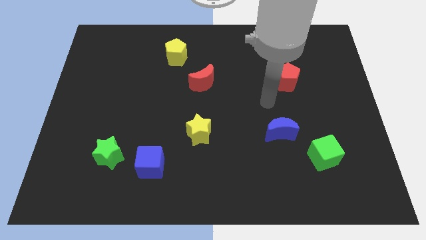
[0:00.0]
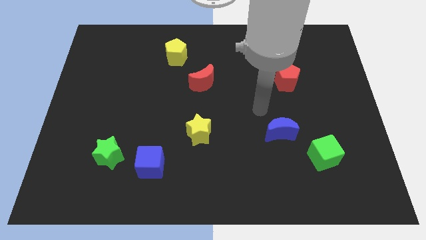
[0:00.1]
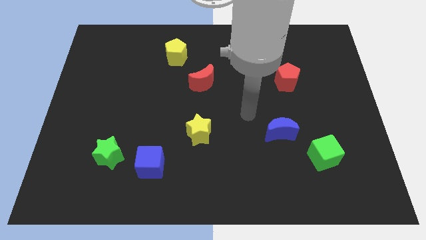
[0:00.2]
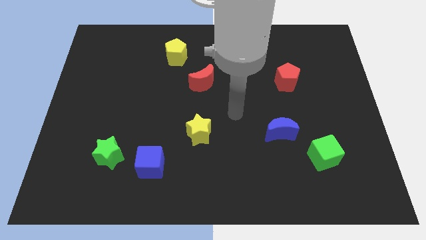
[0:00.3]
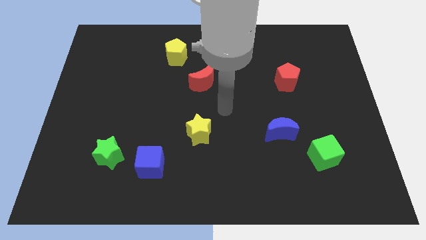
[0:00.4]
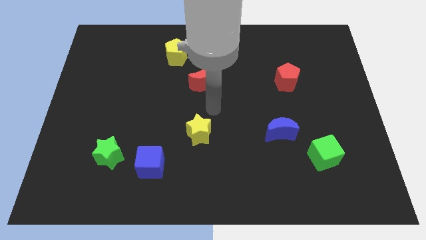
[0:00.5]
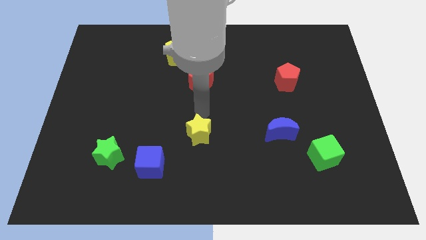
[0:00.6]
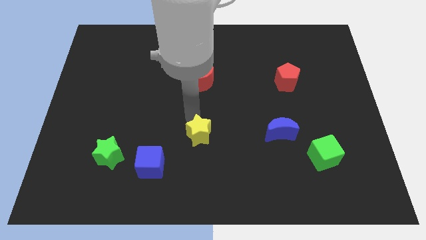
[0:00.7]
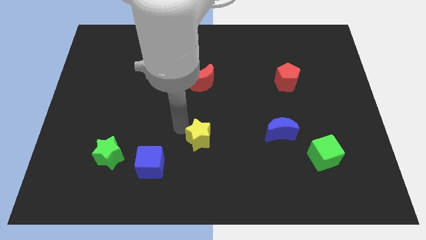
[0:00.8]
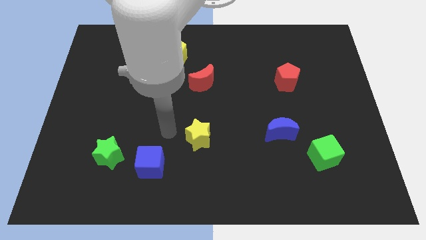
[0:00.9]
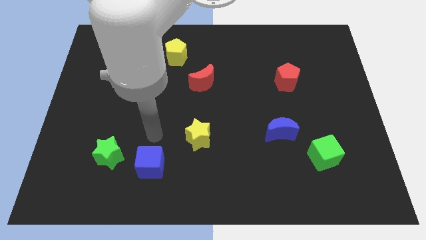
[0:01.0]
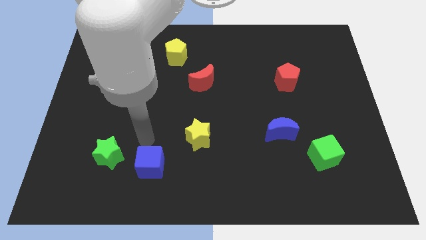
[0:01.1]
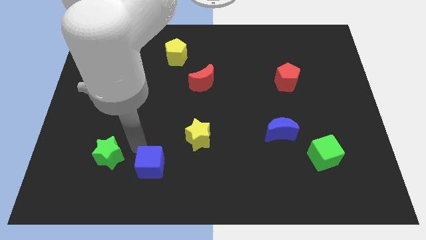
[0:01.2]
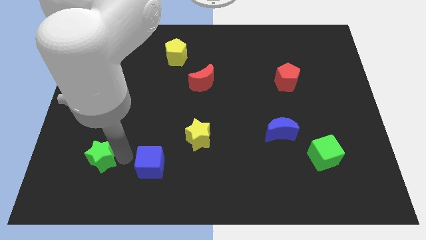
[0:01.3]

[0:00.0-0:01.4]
separate the blue cube from the green star

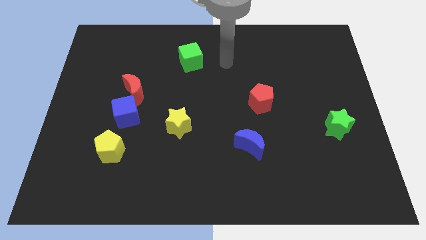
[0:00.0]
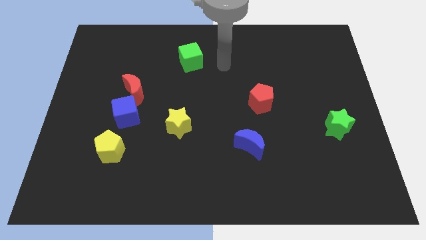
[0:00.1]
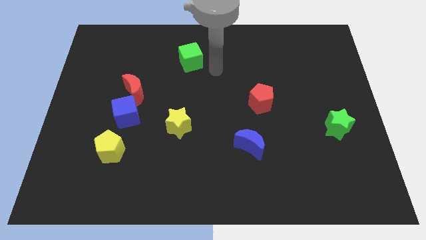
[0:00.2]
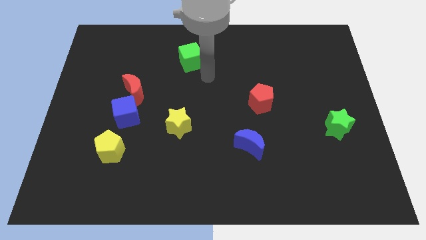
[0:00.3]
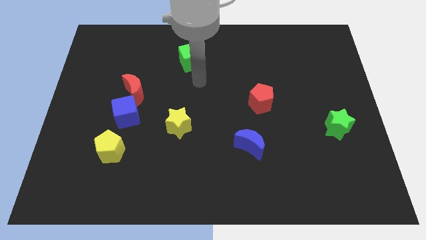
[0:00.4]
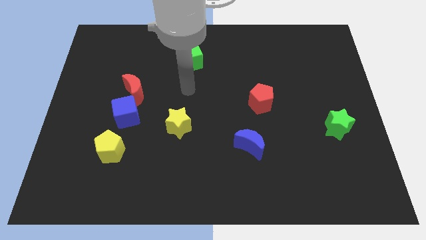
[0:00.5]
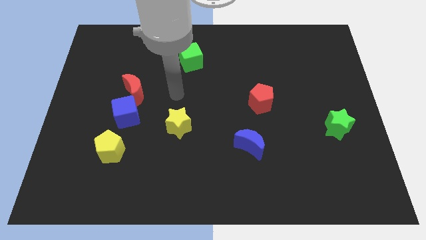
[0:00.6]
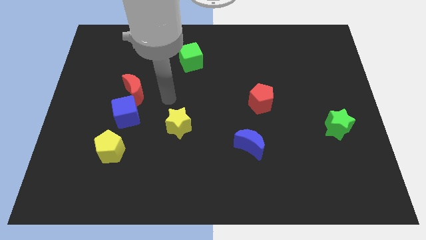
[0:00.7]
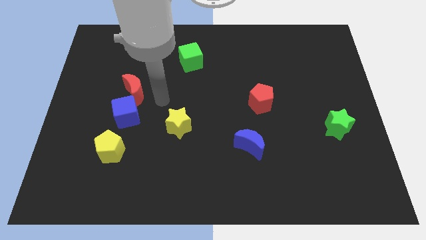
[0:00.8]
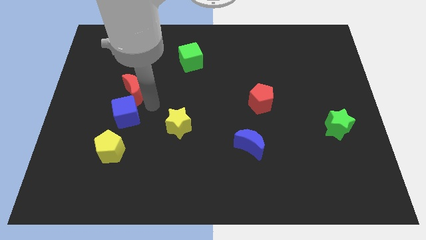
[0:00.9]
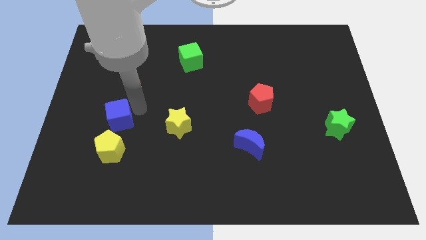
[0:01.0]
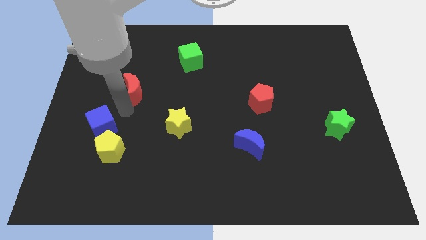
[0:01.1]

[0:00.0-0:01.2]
pull the red moon apart from the blue cube

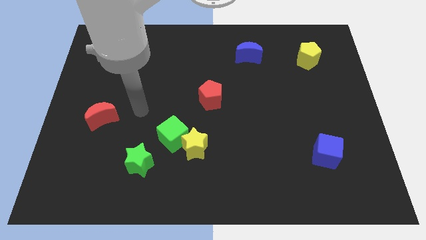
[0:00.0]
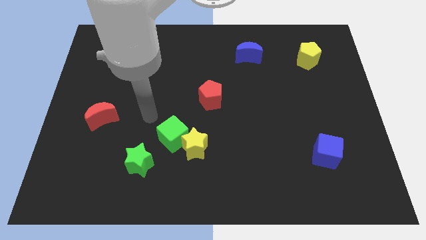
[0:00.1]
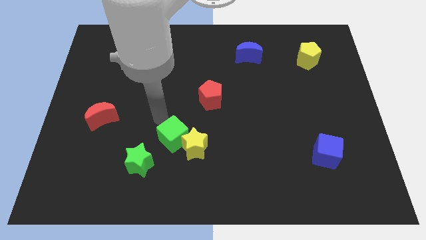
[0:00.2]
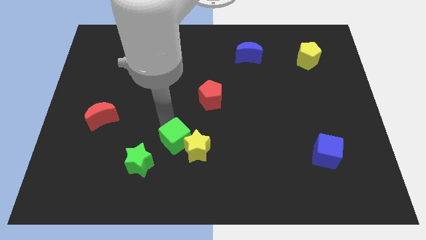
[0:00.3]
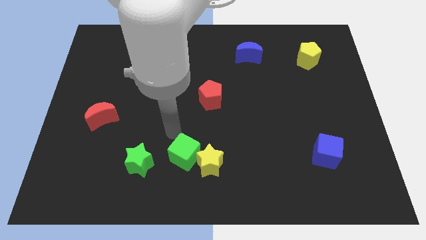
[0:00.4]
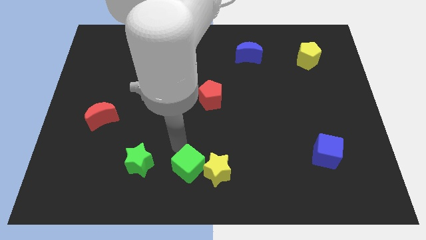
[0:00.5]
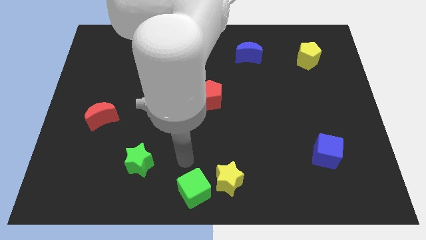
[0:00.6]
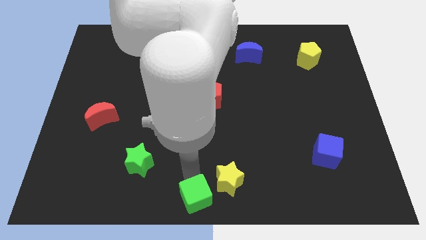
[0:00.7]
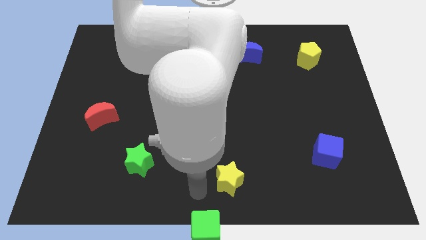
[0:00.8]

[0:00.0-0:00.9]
pull the yellow star apart from the green cube

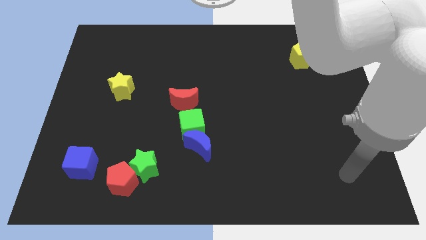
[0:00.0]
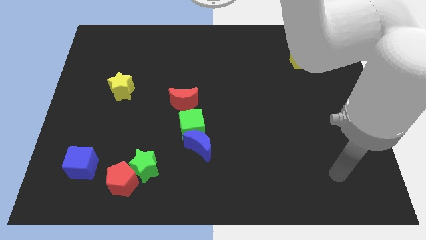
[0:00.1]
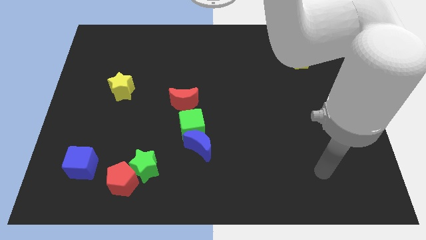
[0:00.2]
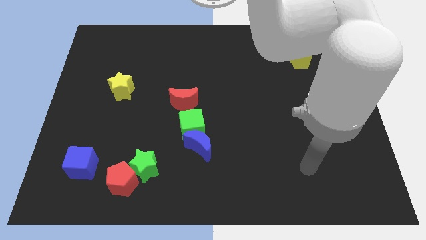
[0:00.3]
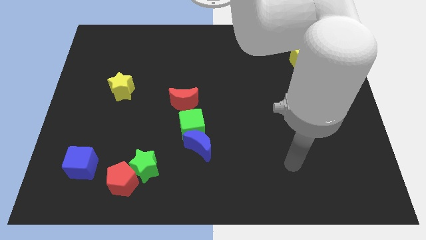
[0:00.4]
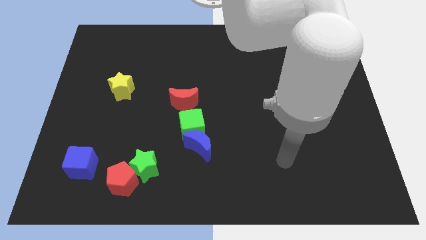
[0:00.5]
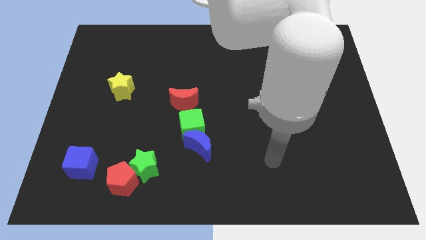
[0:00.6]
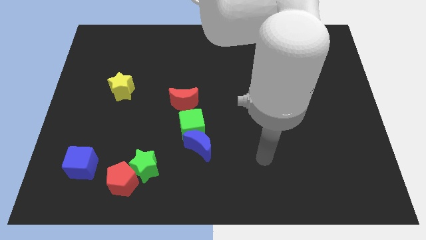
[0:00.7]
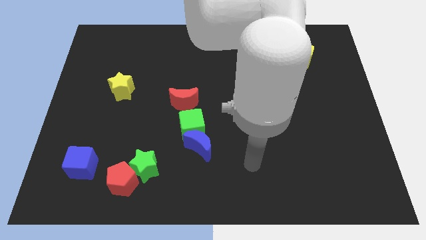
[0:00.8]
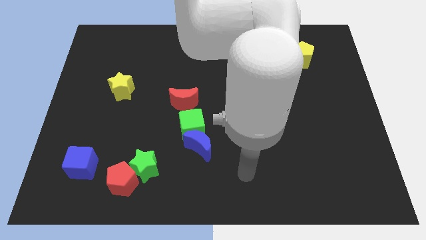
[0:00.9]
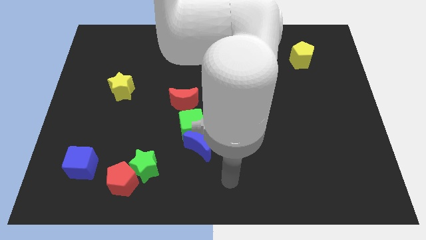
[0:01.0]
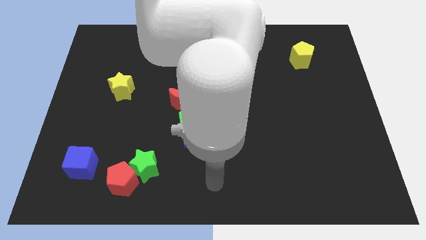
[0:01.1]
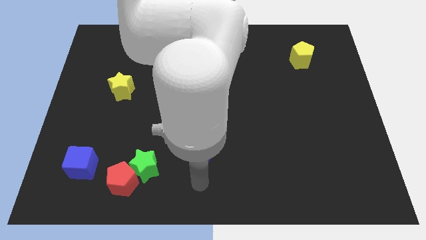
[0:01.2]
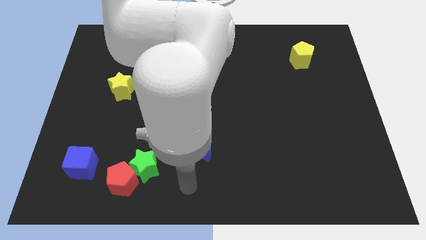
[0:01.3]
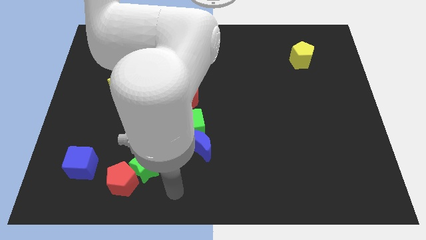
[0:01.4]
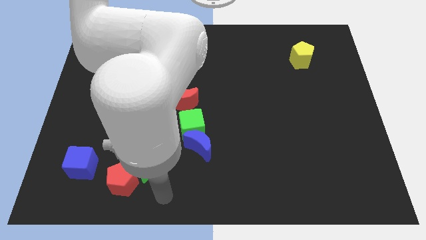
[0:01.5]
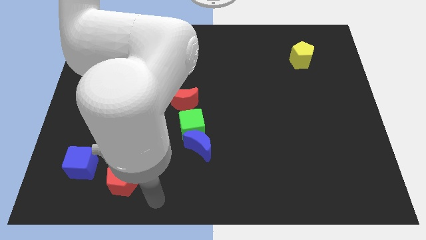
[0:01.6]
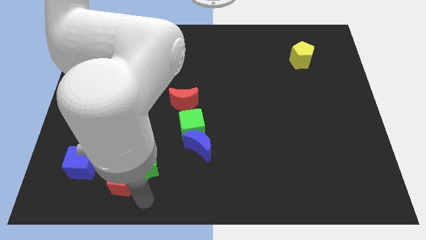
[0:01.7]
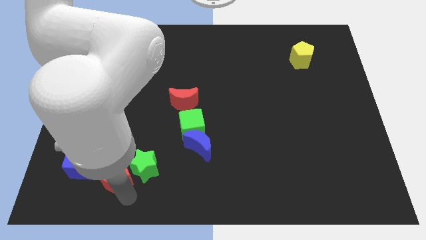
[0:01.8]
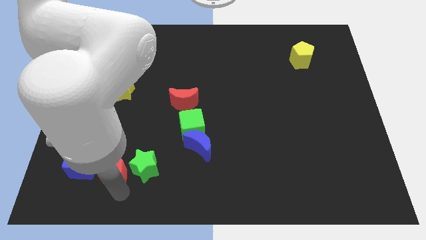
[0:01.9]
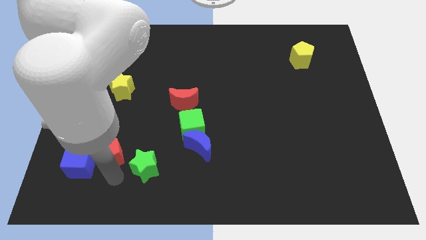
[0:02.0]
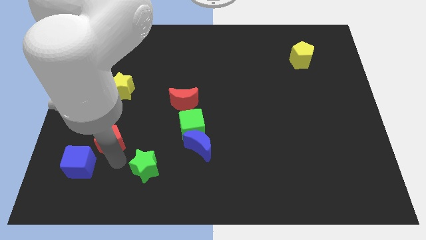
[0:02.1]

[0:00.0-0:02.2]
pull the green star apart from the red pentagon

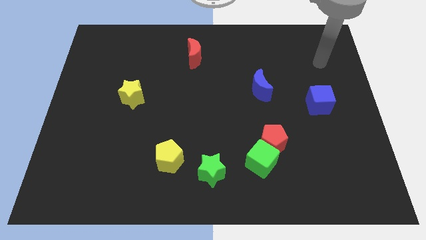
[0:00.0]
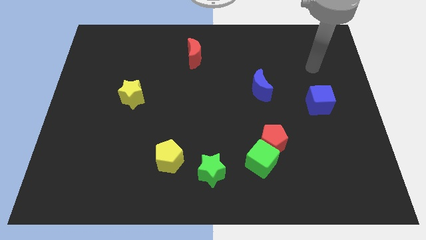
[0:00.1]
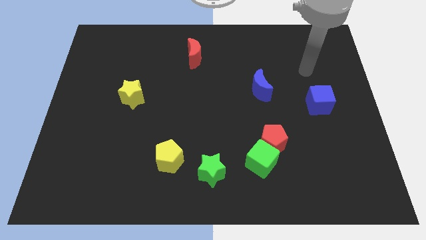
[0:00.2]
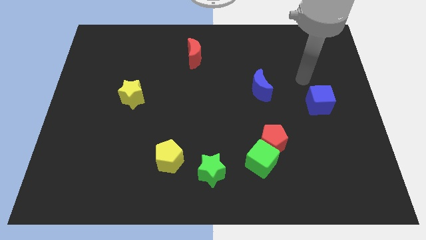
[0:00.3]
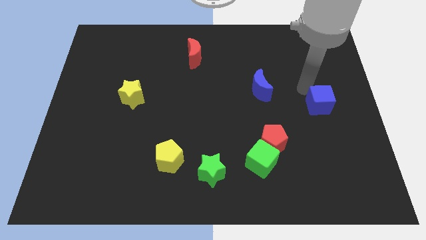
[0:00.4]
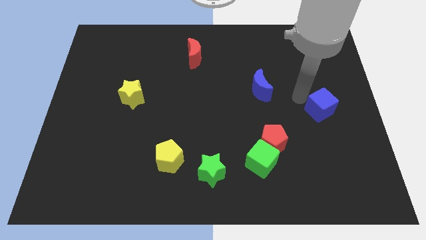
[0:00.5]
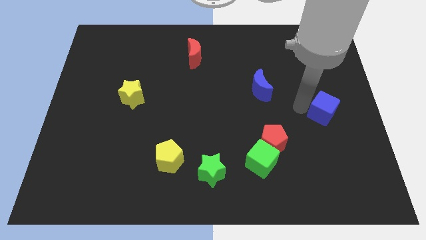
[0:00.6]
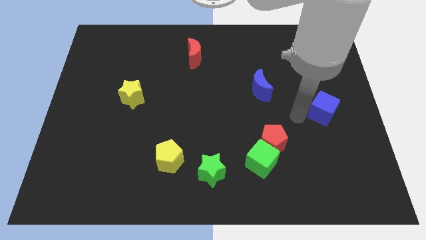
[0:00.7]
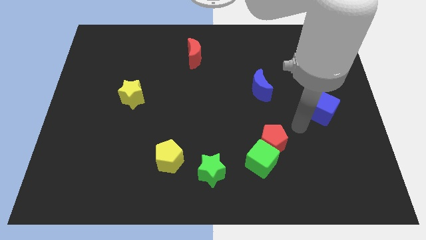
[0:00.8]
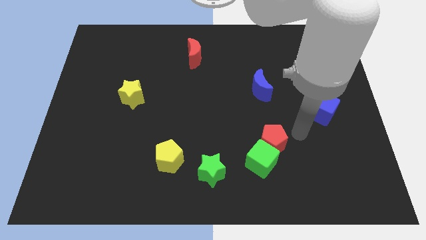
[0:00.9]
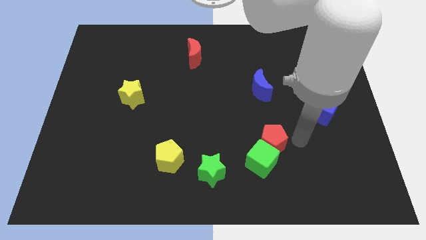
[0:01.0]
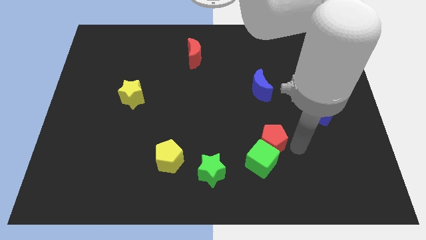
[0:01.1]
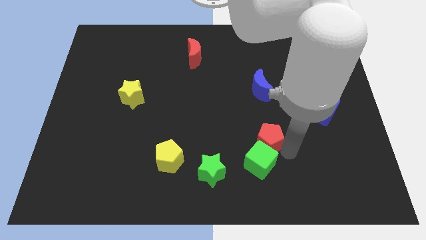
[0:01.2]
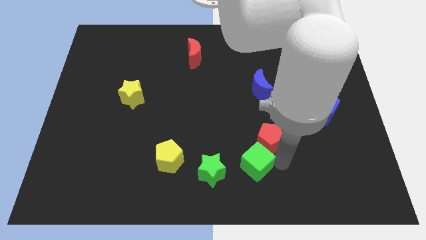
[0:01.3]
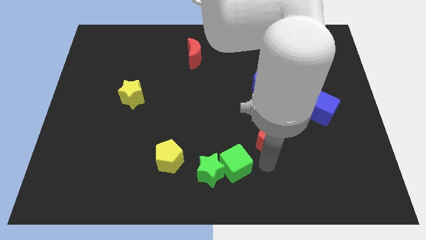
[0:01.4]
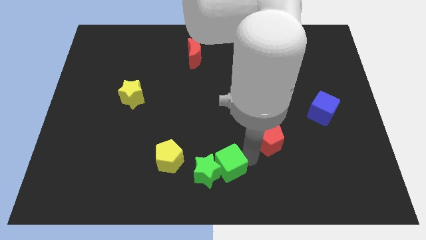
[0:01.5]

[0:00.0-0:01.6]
move the red pentagon away from the green cube

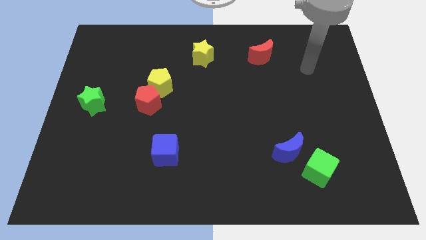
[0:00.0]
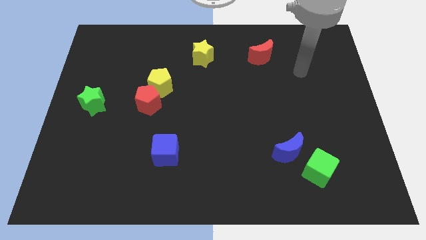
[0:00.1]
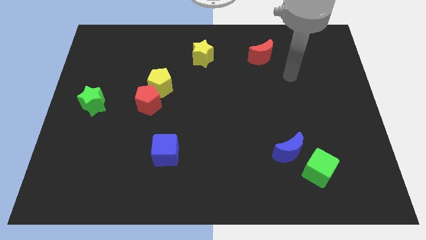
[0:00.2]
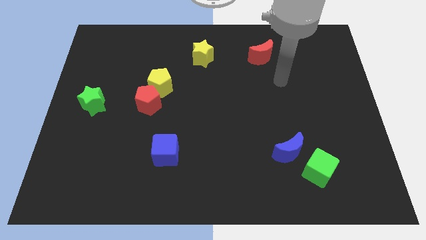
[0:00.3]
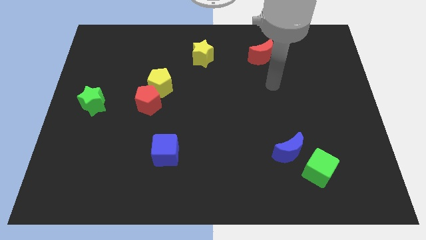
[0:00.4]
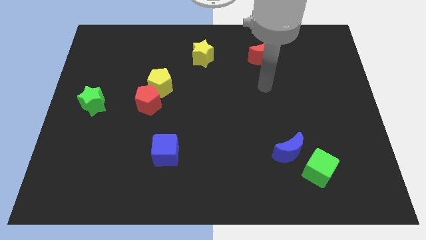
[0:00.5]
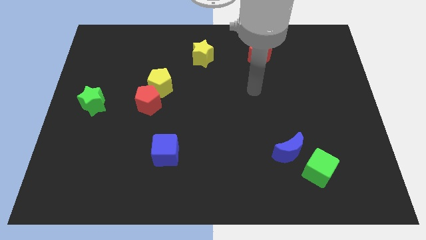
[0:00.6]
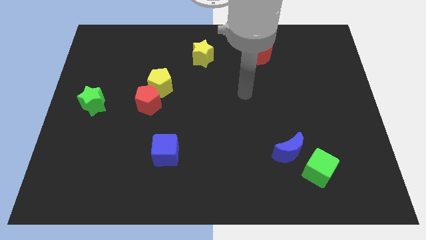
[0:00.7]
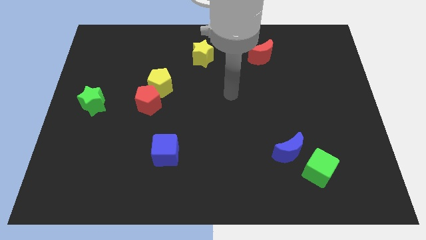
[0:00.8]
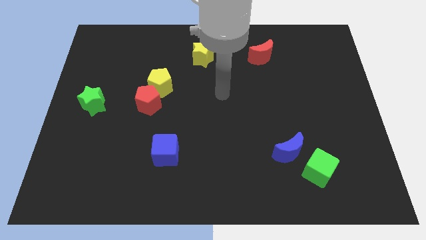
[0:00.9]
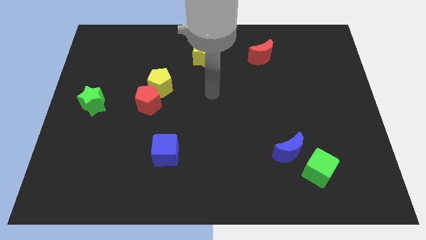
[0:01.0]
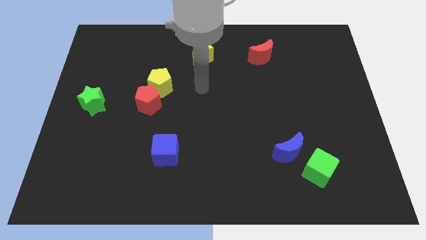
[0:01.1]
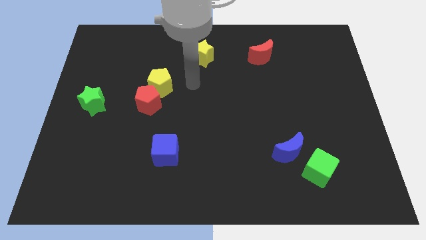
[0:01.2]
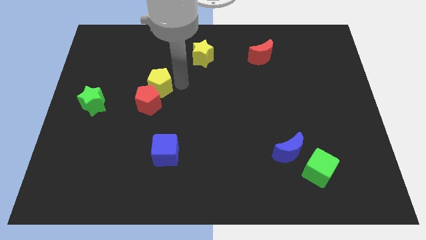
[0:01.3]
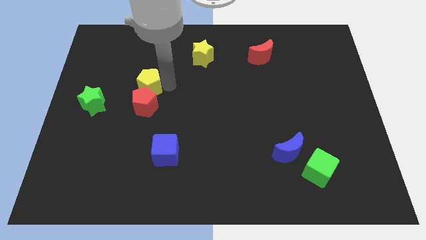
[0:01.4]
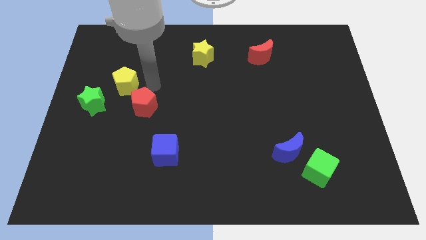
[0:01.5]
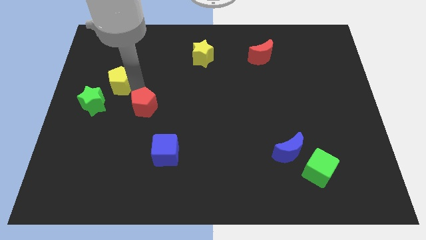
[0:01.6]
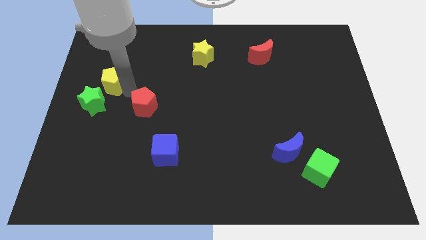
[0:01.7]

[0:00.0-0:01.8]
separate the red pentagon from the yellow pentagon

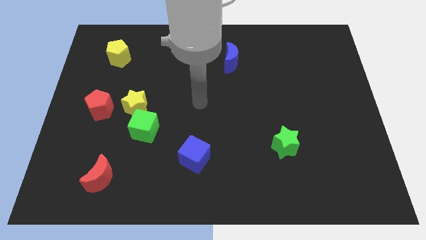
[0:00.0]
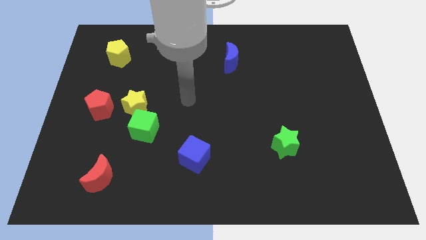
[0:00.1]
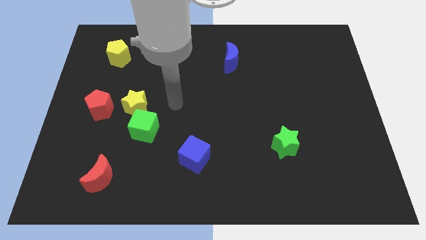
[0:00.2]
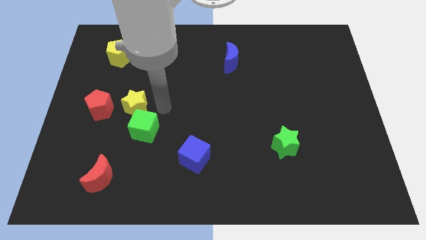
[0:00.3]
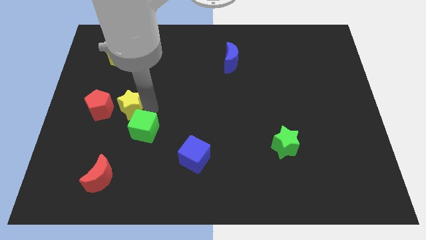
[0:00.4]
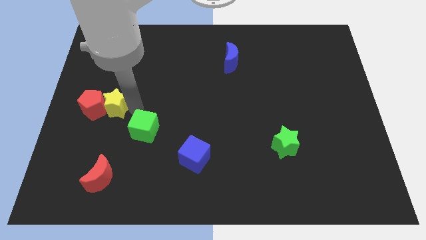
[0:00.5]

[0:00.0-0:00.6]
move the green cube away from the yellow star
